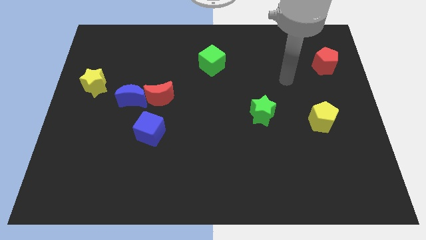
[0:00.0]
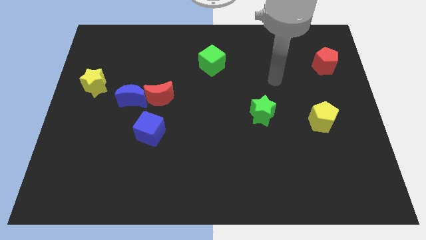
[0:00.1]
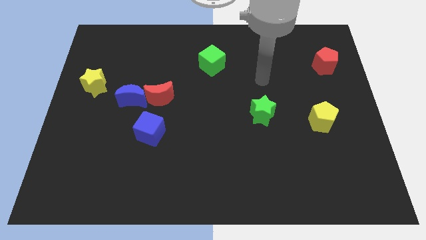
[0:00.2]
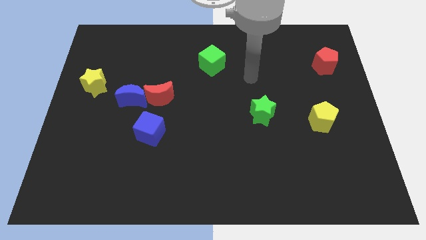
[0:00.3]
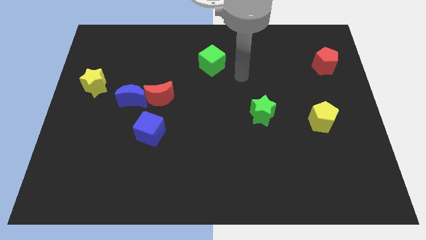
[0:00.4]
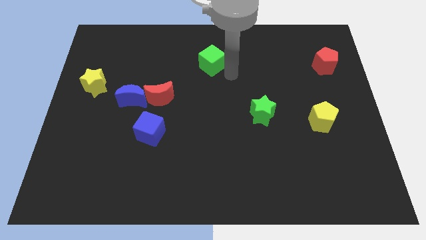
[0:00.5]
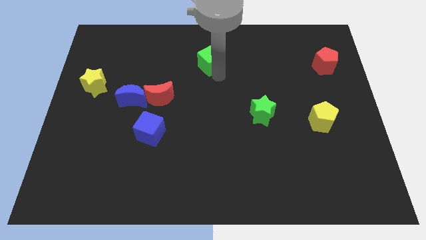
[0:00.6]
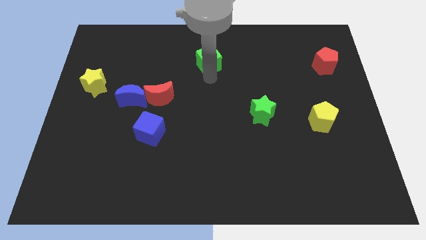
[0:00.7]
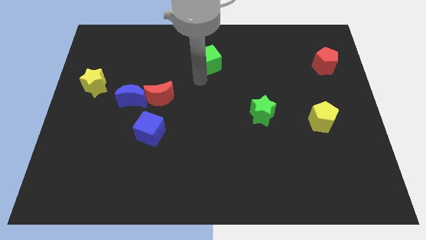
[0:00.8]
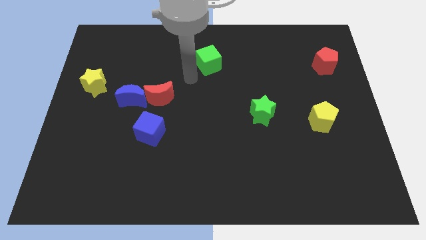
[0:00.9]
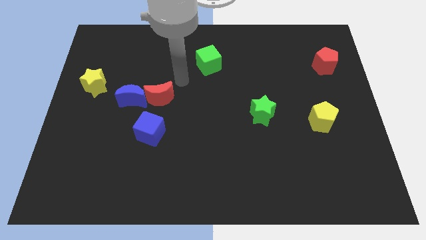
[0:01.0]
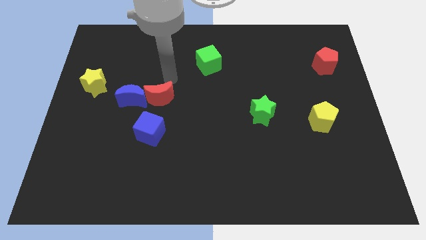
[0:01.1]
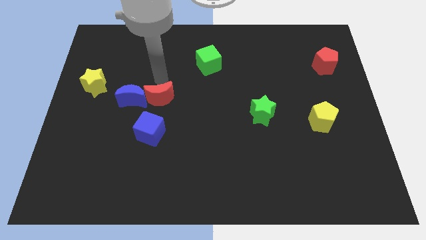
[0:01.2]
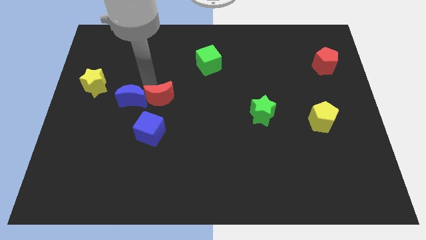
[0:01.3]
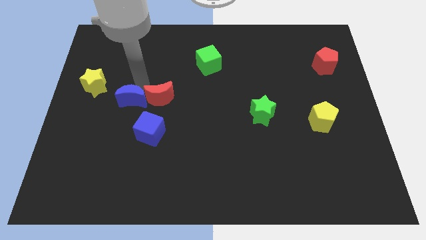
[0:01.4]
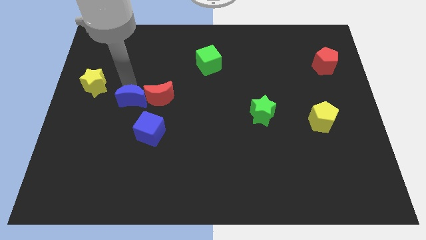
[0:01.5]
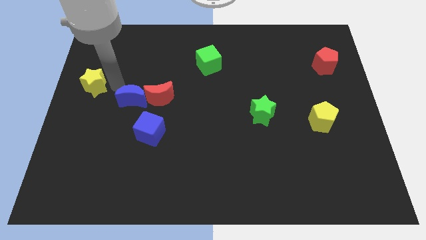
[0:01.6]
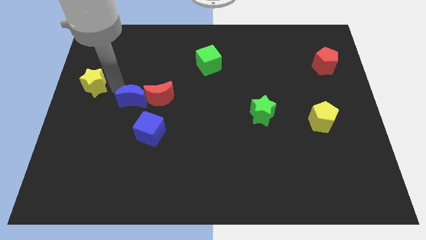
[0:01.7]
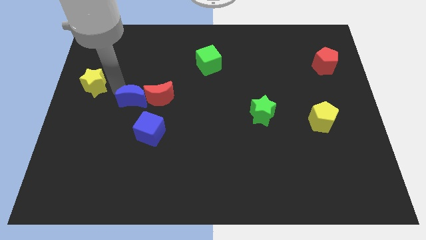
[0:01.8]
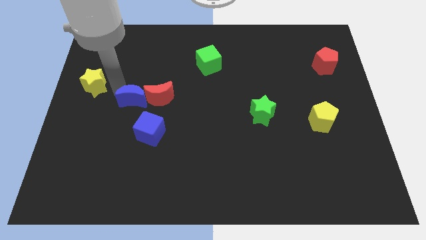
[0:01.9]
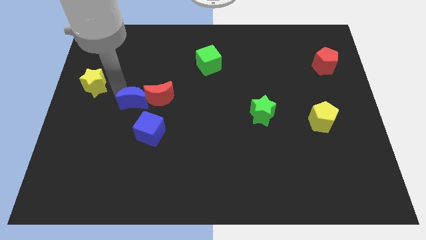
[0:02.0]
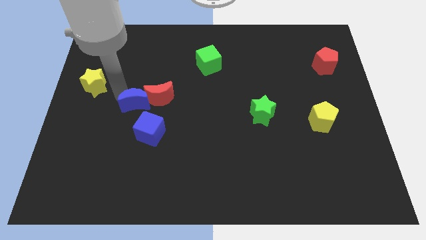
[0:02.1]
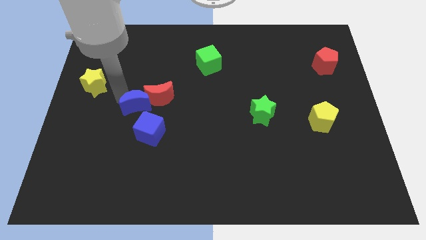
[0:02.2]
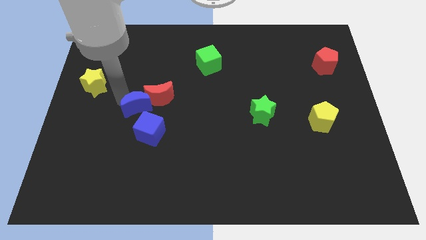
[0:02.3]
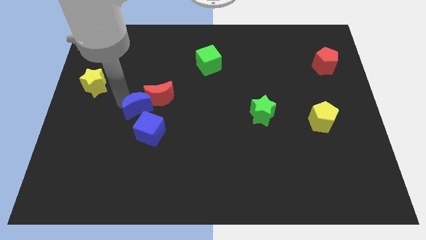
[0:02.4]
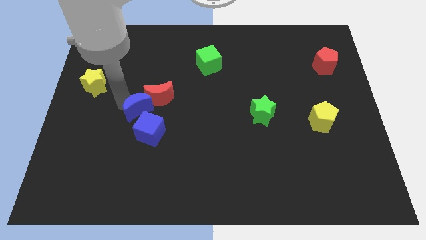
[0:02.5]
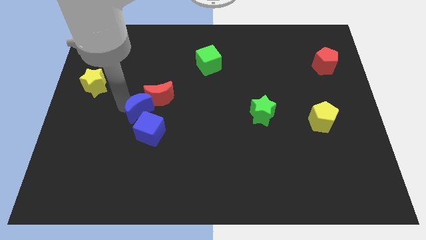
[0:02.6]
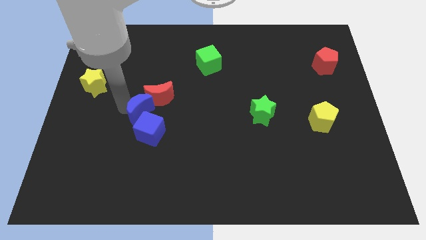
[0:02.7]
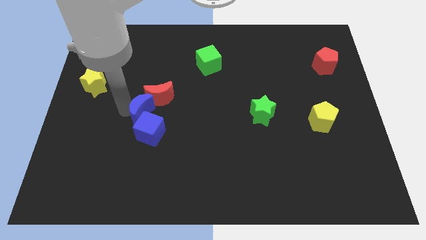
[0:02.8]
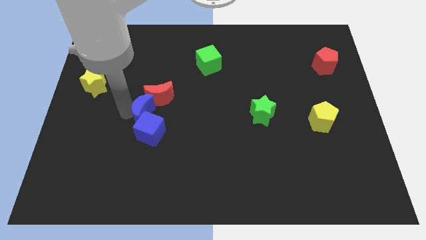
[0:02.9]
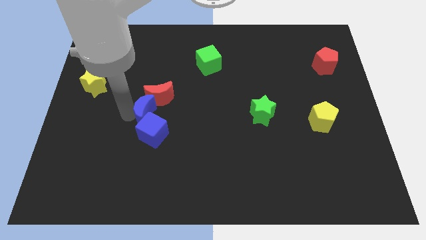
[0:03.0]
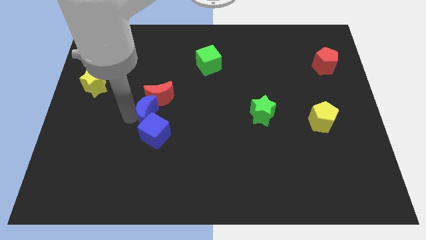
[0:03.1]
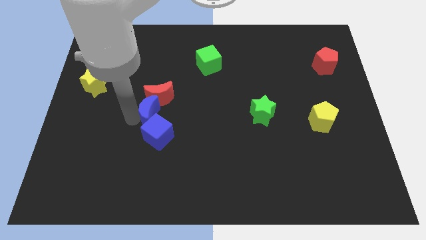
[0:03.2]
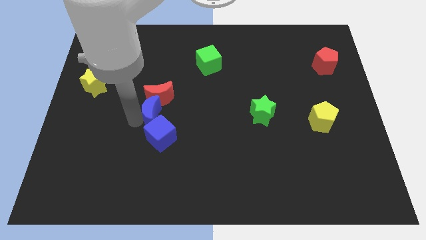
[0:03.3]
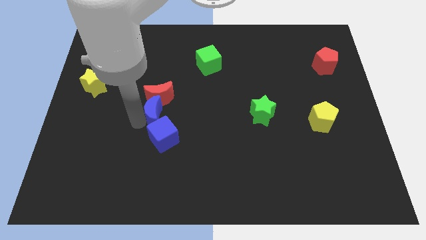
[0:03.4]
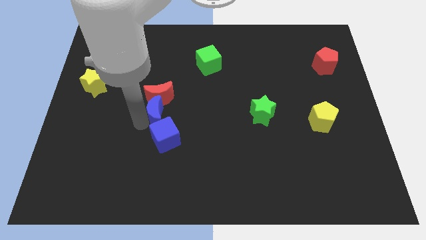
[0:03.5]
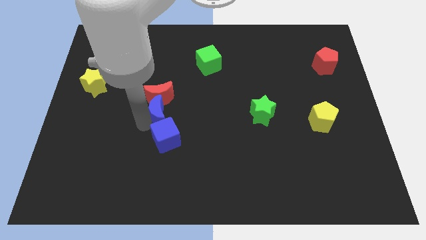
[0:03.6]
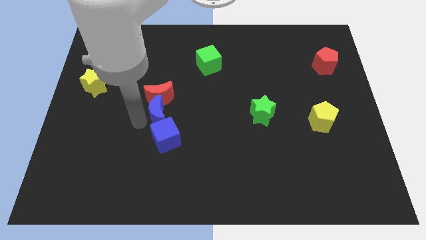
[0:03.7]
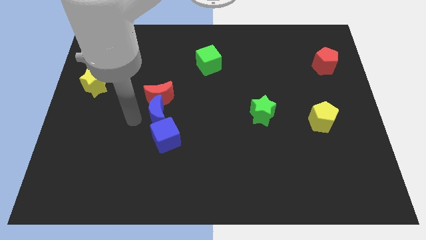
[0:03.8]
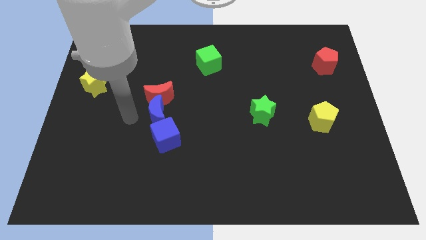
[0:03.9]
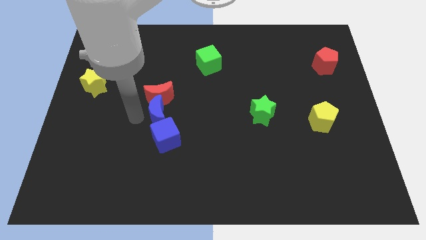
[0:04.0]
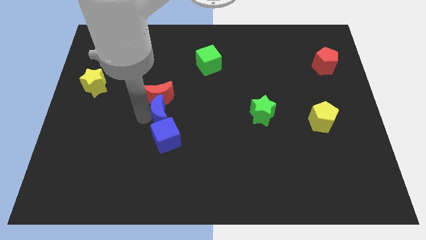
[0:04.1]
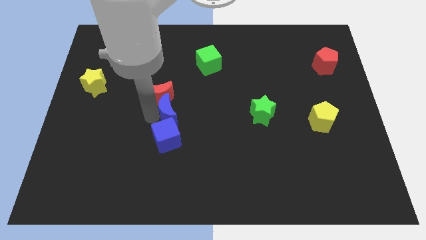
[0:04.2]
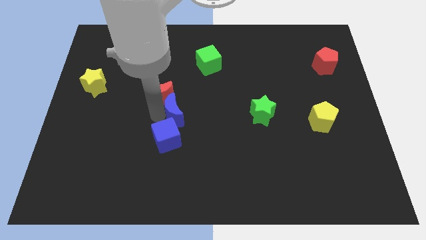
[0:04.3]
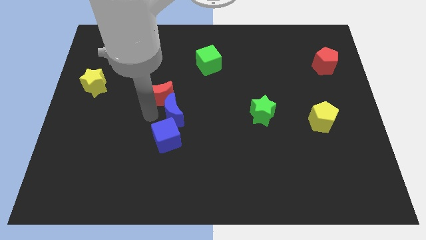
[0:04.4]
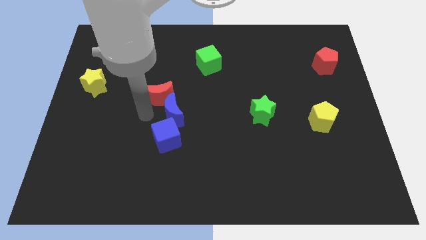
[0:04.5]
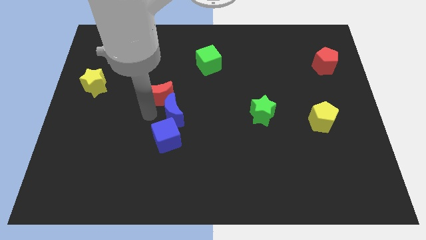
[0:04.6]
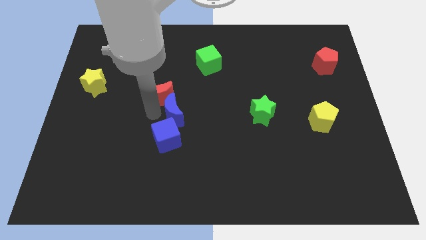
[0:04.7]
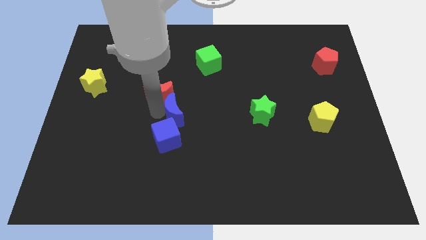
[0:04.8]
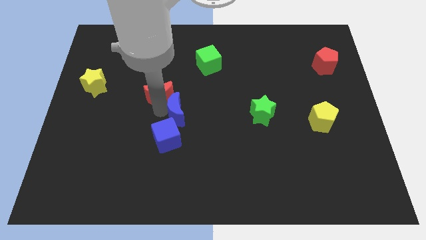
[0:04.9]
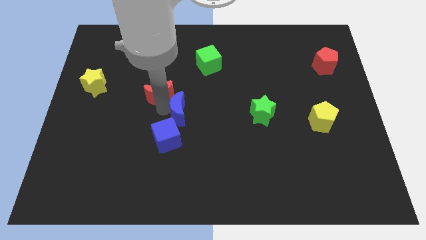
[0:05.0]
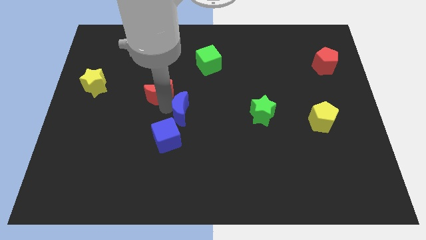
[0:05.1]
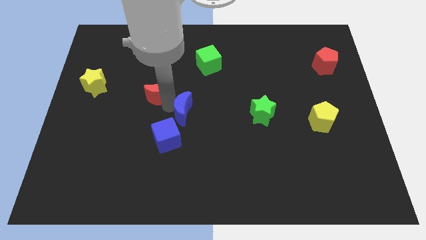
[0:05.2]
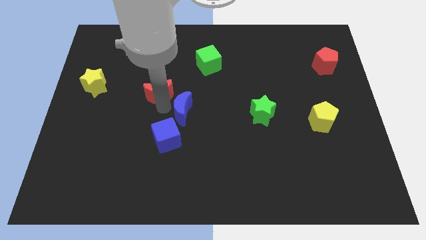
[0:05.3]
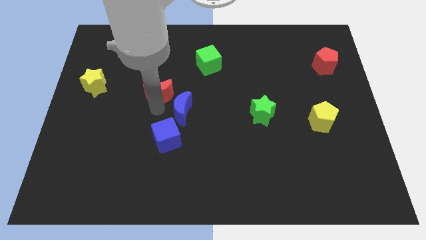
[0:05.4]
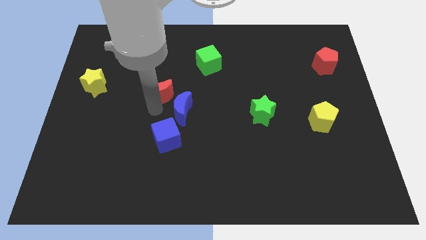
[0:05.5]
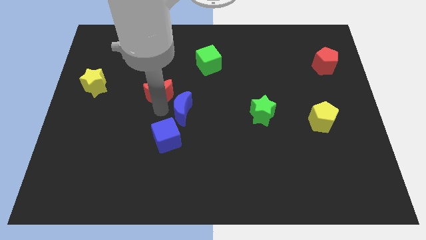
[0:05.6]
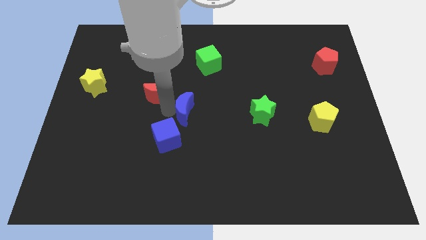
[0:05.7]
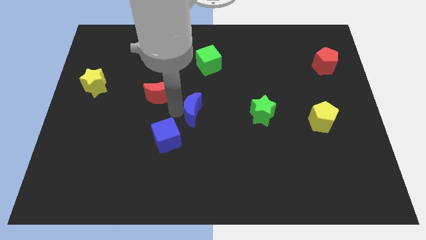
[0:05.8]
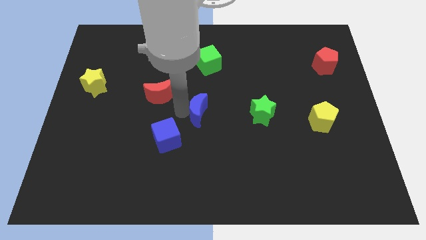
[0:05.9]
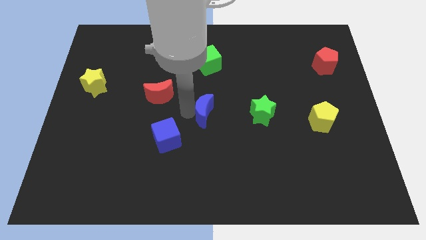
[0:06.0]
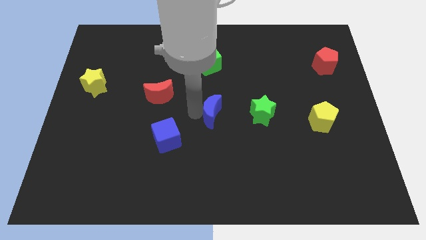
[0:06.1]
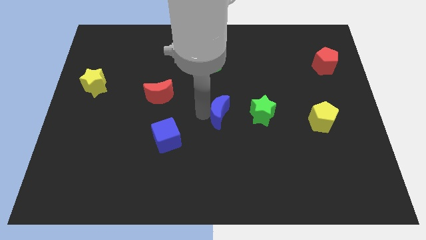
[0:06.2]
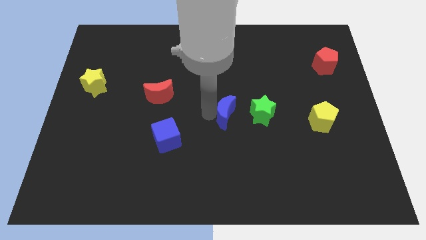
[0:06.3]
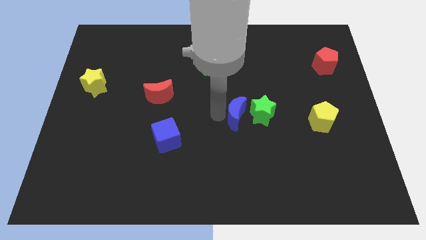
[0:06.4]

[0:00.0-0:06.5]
put the blue moon close to the green star
